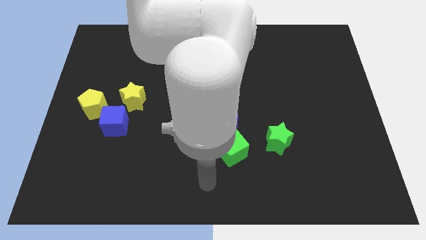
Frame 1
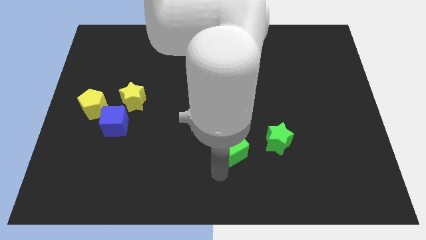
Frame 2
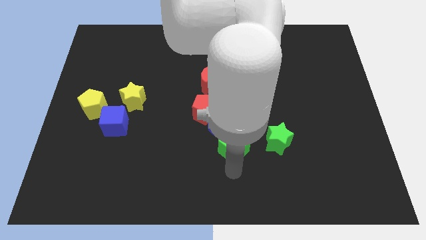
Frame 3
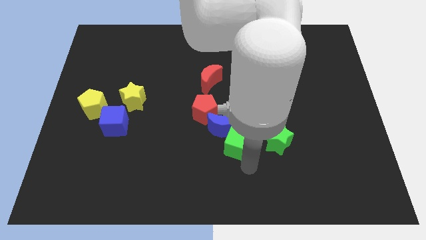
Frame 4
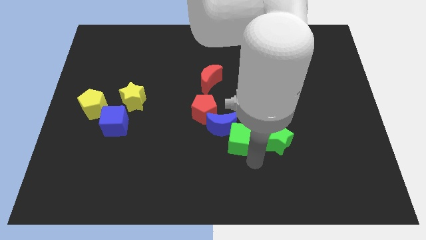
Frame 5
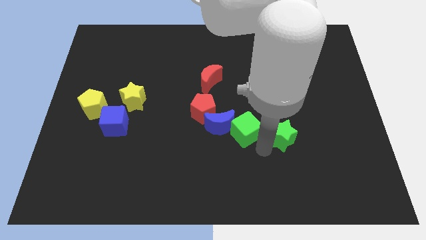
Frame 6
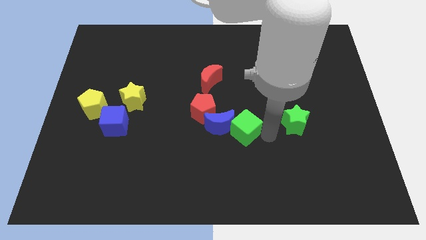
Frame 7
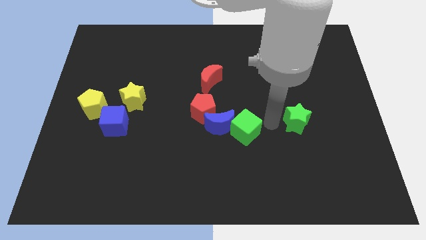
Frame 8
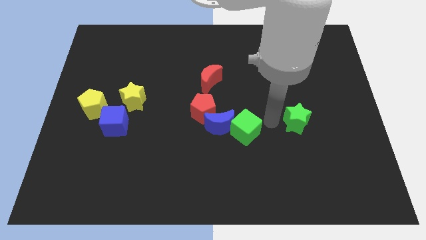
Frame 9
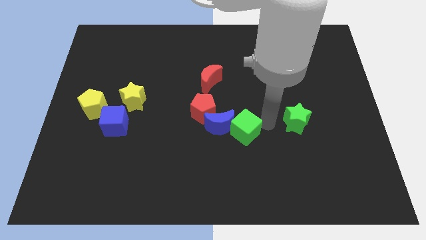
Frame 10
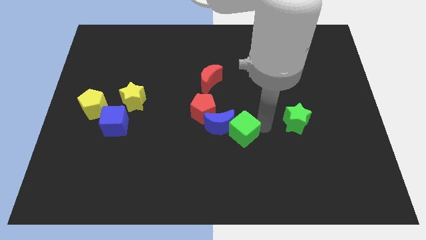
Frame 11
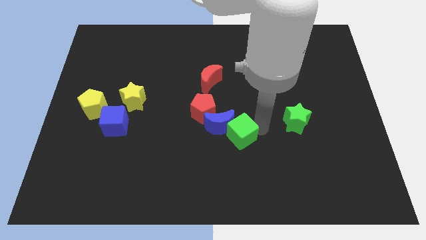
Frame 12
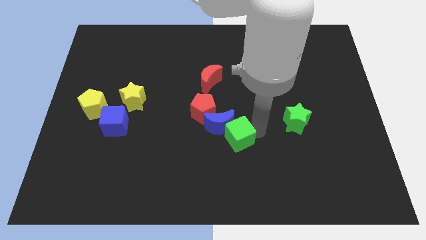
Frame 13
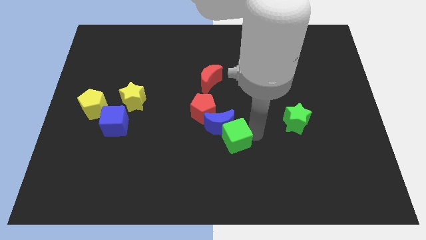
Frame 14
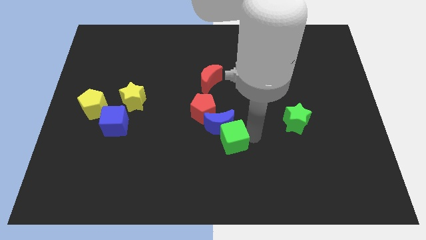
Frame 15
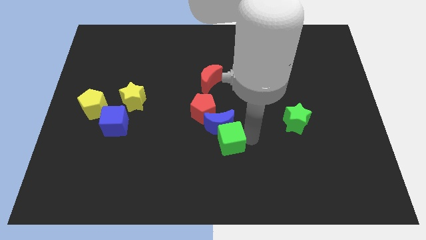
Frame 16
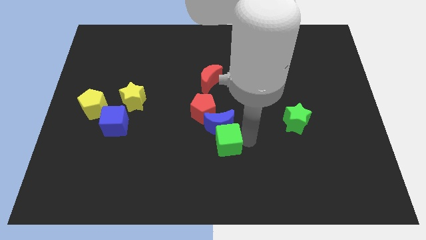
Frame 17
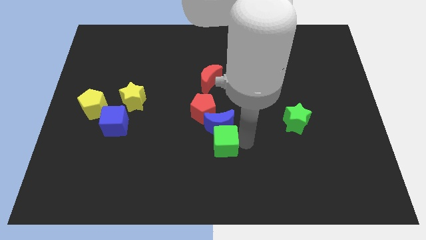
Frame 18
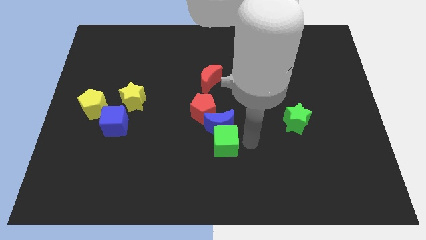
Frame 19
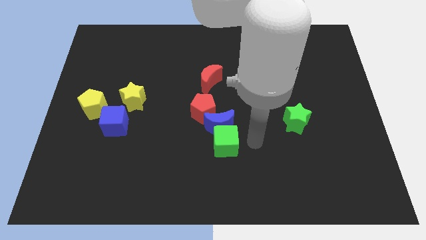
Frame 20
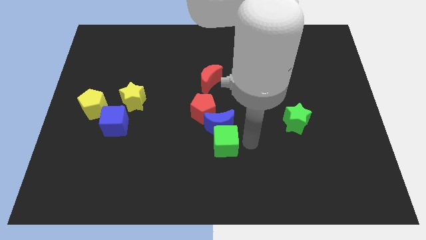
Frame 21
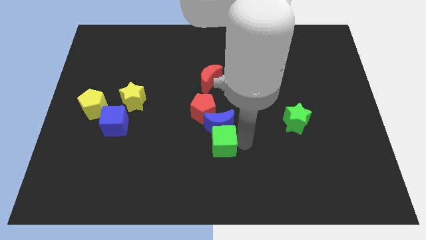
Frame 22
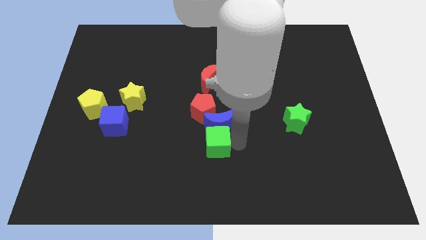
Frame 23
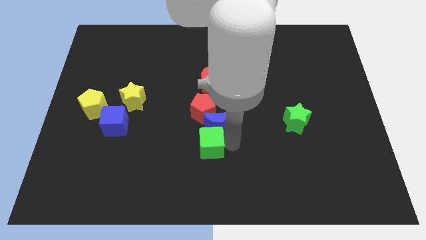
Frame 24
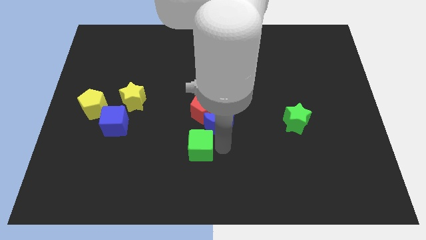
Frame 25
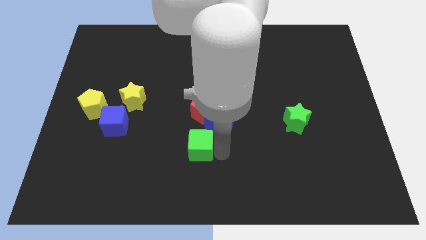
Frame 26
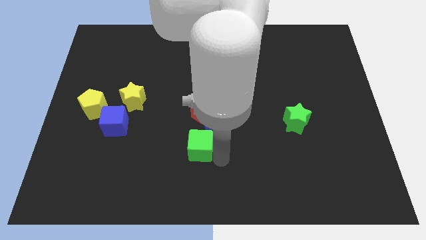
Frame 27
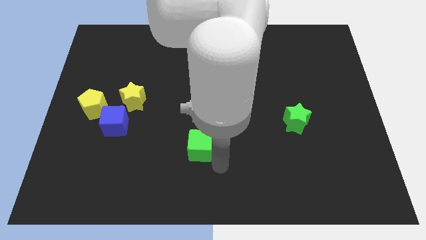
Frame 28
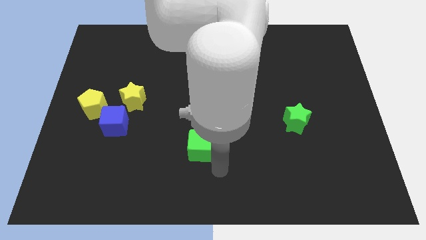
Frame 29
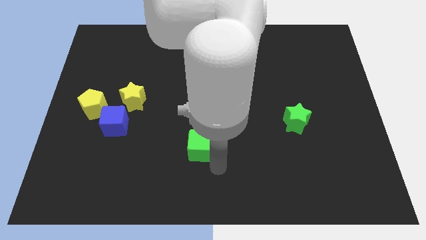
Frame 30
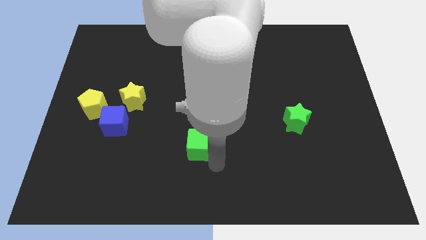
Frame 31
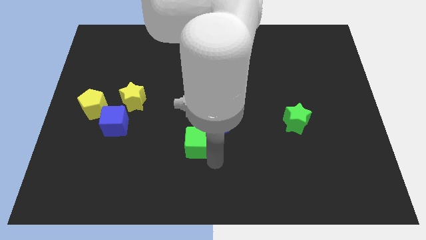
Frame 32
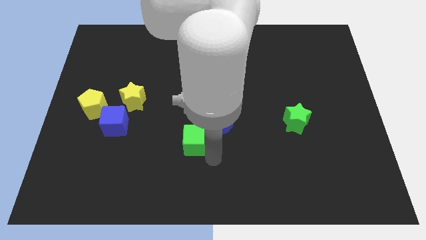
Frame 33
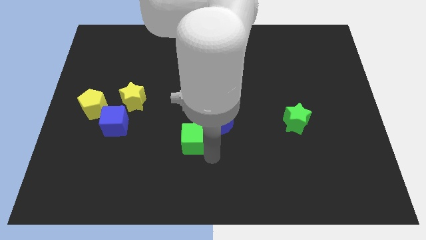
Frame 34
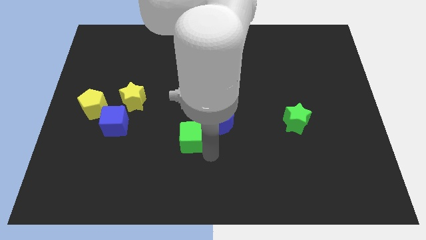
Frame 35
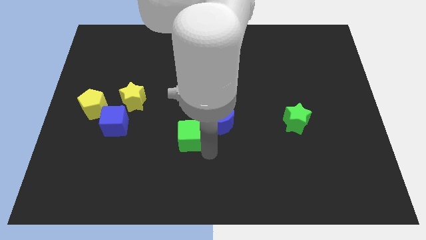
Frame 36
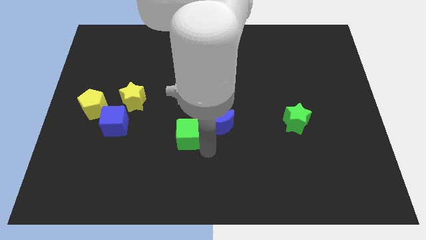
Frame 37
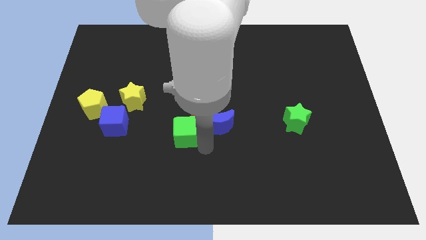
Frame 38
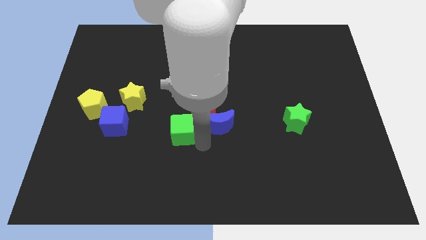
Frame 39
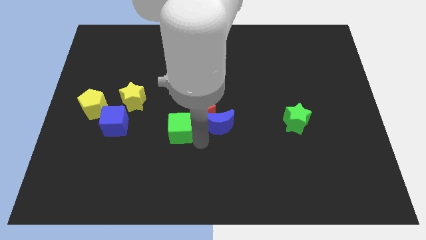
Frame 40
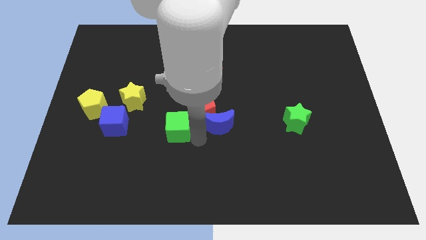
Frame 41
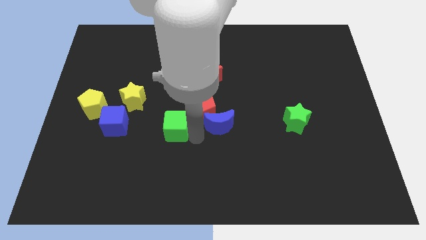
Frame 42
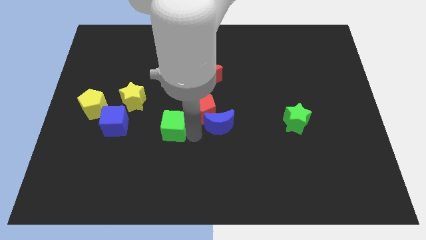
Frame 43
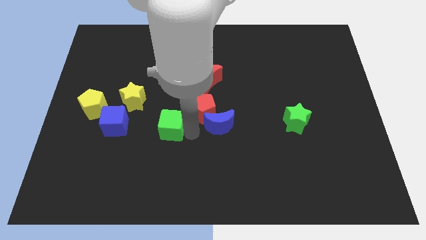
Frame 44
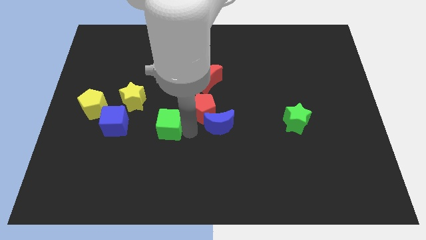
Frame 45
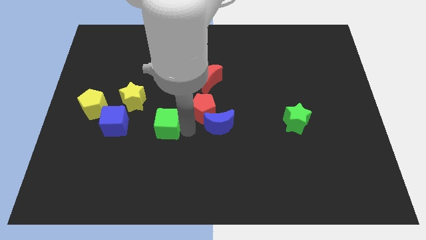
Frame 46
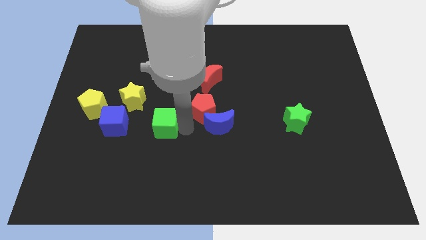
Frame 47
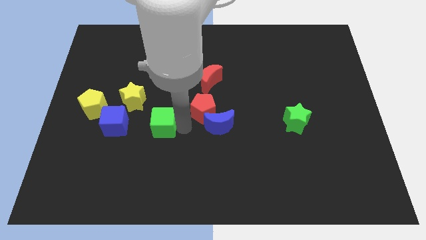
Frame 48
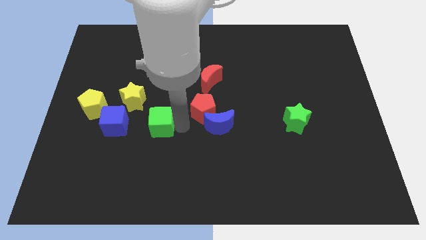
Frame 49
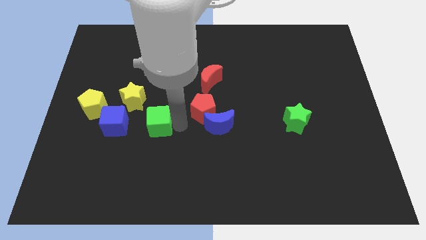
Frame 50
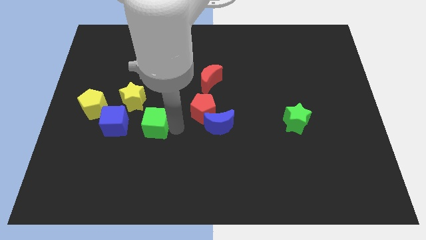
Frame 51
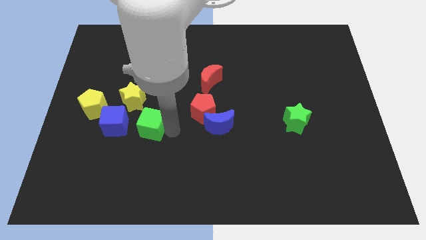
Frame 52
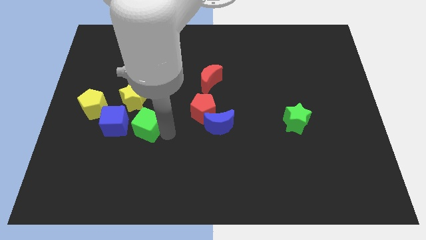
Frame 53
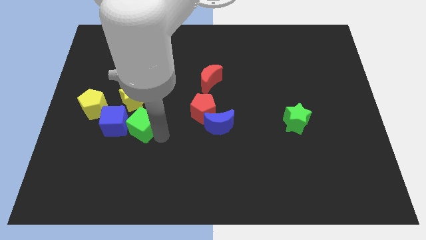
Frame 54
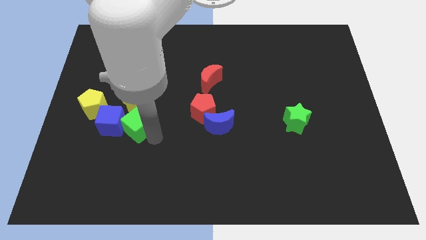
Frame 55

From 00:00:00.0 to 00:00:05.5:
move the green cube diagonally up and to the right of the blue cube

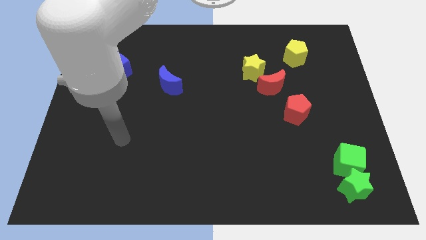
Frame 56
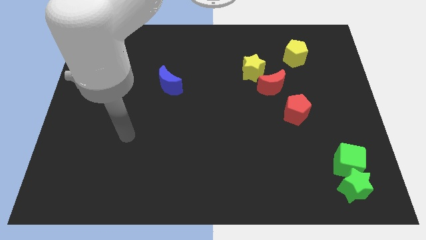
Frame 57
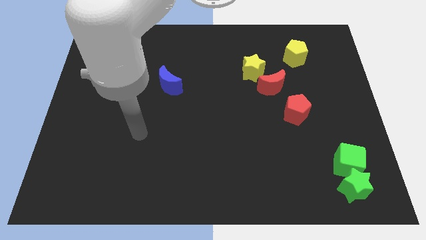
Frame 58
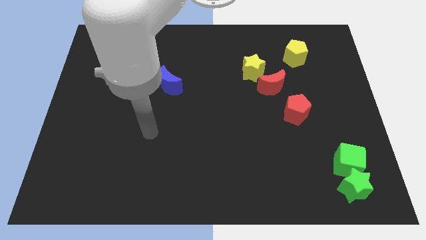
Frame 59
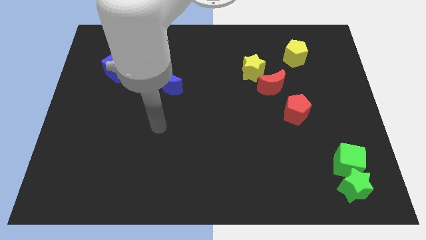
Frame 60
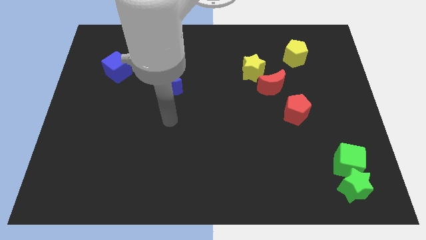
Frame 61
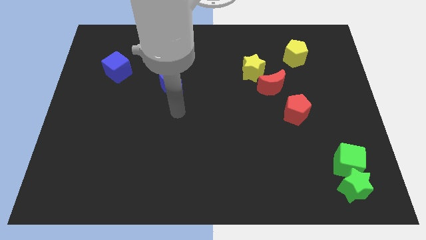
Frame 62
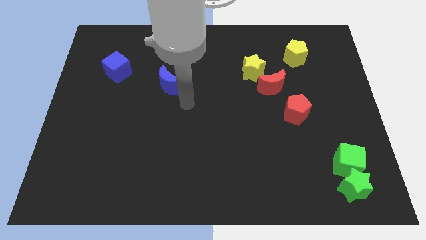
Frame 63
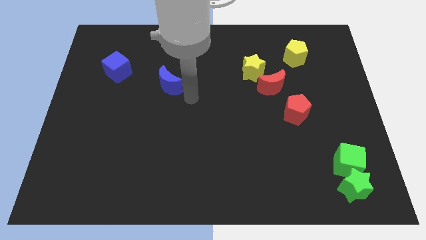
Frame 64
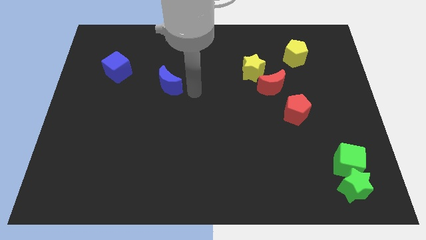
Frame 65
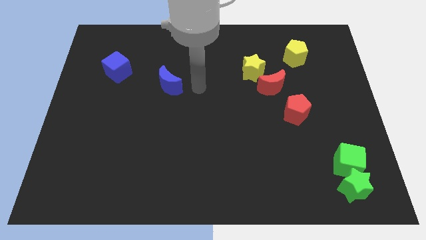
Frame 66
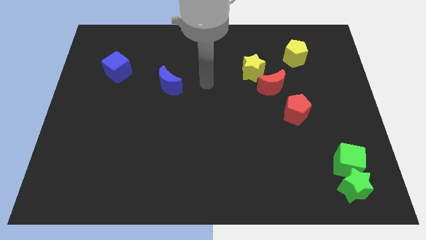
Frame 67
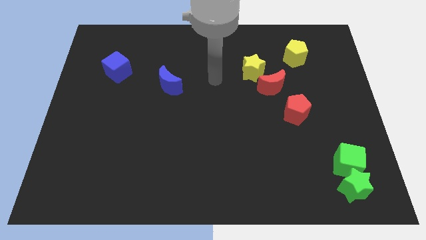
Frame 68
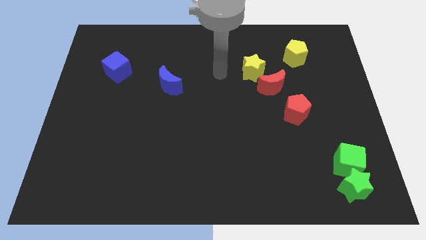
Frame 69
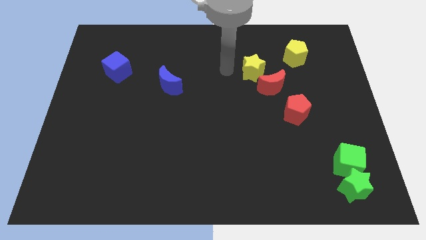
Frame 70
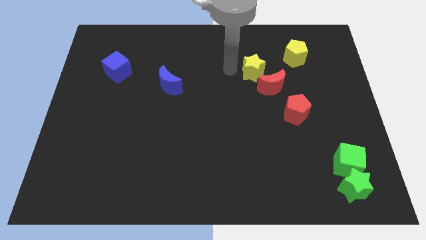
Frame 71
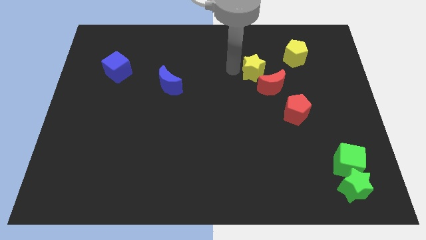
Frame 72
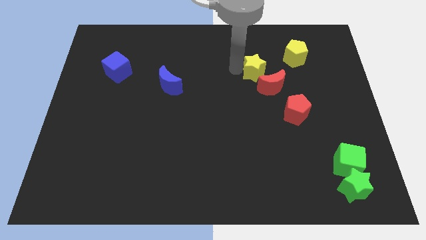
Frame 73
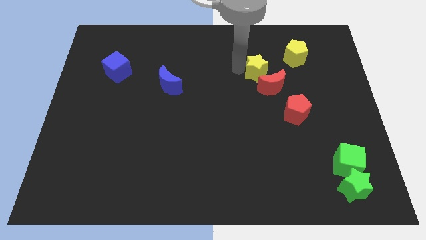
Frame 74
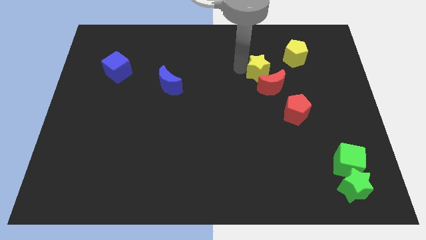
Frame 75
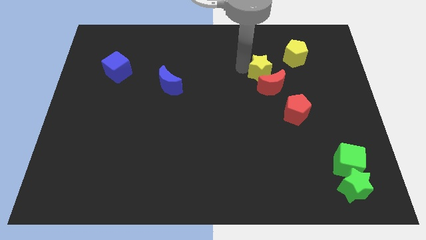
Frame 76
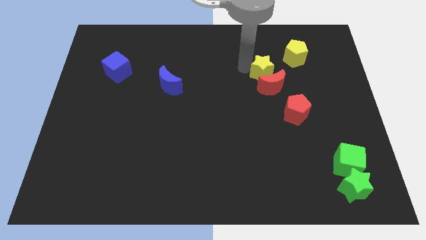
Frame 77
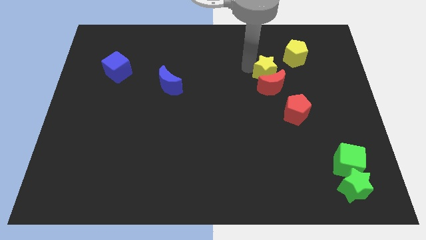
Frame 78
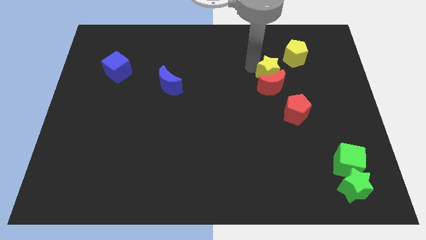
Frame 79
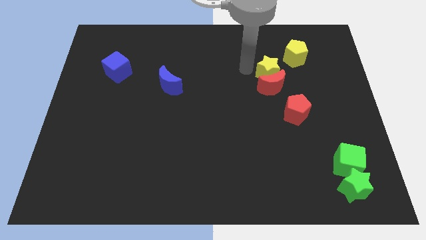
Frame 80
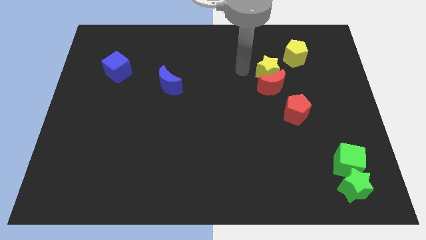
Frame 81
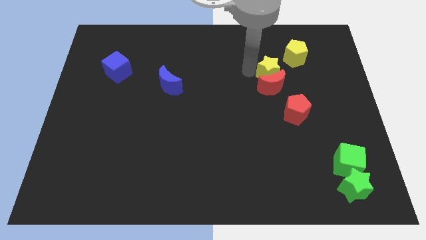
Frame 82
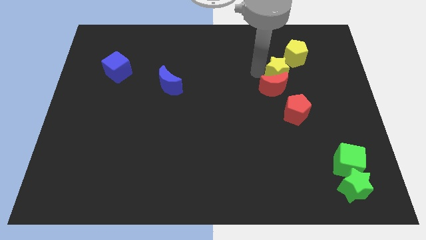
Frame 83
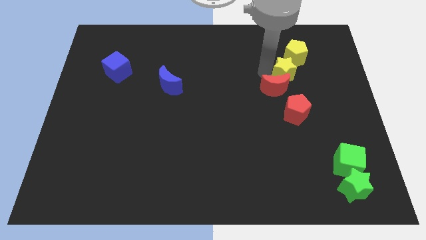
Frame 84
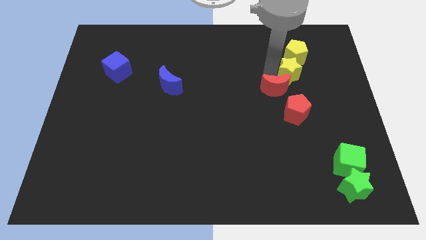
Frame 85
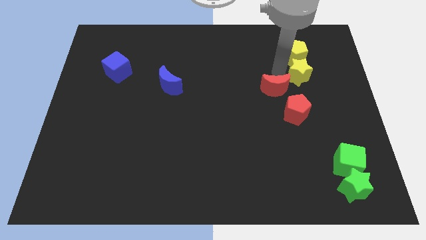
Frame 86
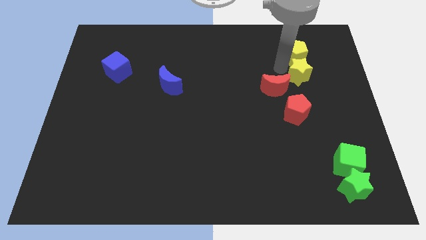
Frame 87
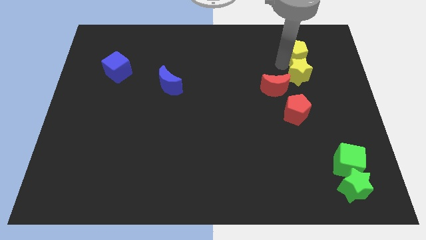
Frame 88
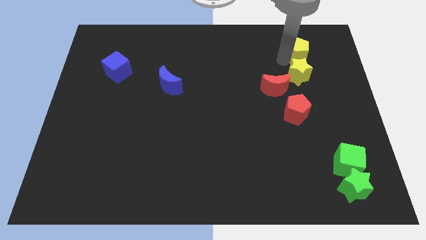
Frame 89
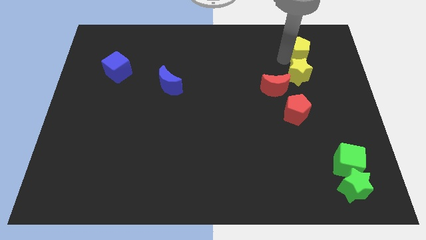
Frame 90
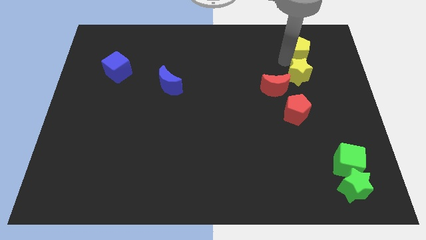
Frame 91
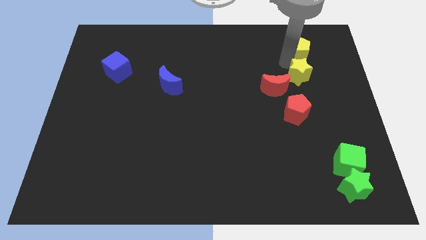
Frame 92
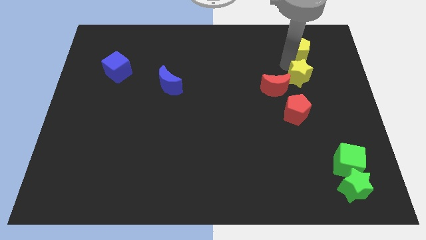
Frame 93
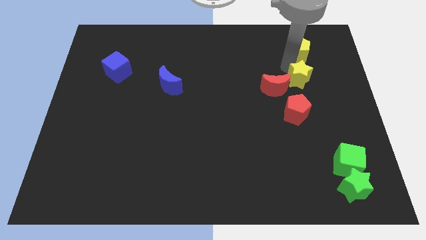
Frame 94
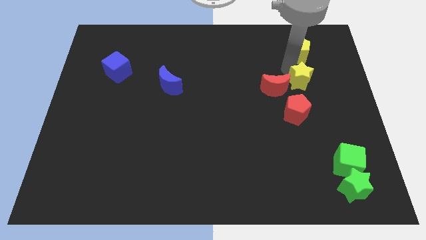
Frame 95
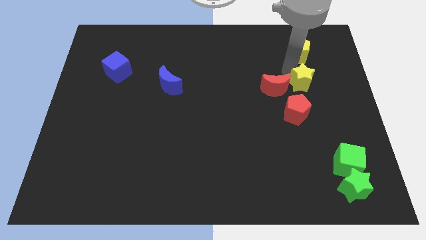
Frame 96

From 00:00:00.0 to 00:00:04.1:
put the yellow star to the top right side of the red pentagon
